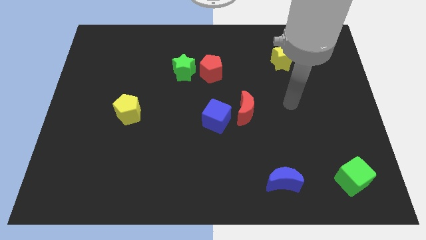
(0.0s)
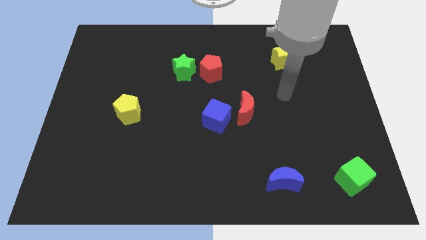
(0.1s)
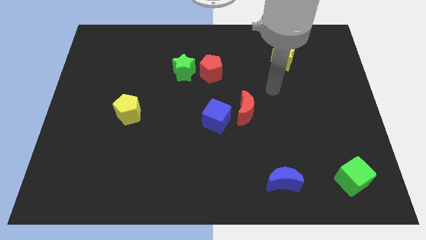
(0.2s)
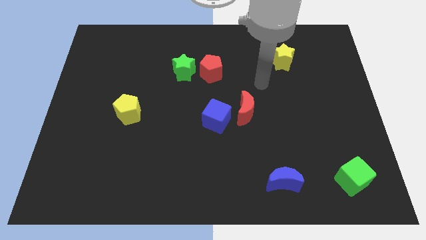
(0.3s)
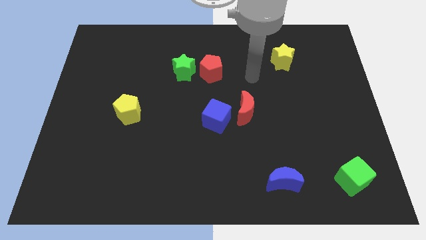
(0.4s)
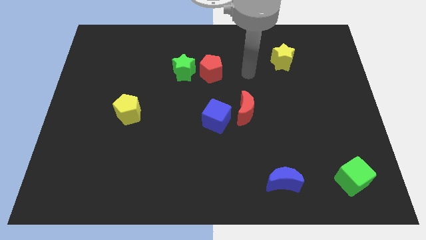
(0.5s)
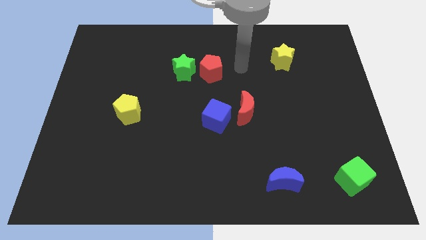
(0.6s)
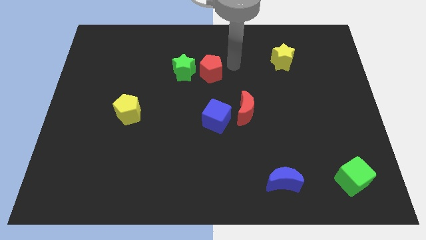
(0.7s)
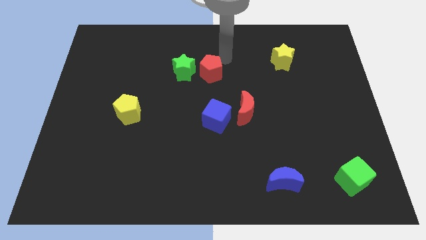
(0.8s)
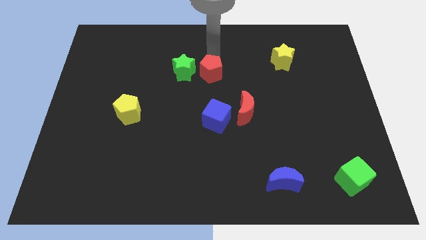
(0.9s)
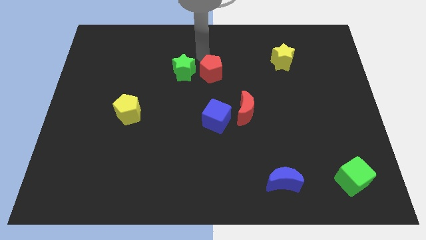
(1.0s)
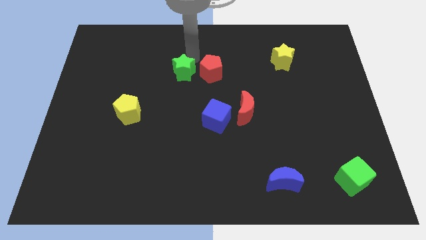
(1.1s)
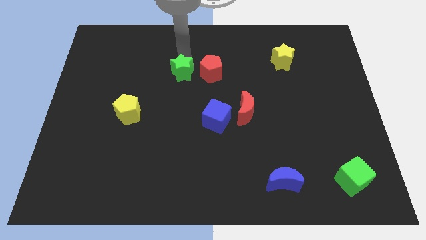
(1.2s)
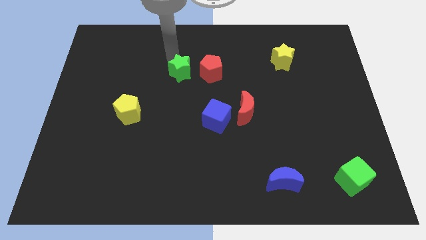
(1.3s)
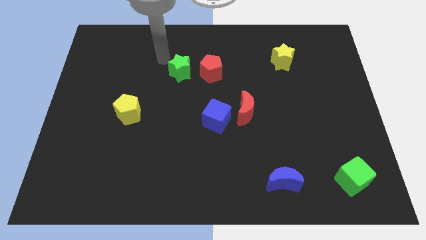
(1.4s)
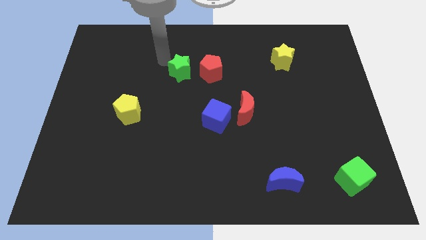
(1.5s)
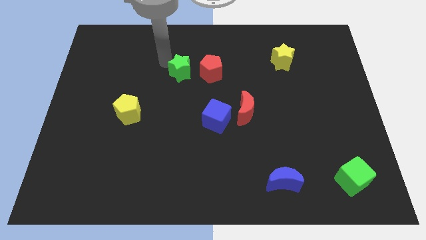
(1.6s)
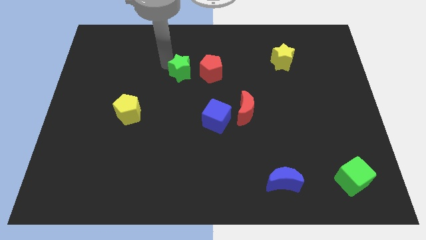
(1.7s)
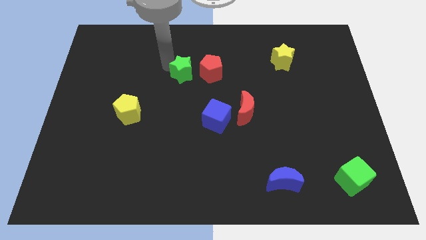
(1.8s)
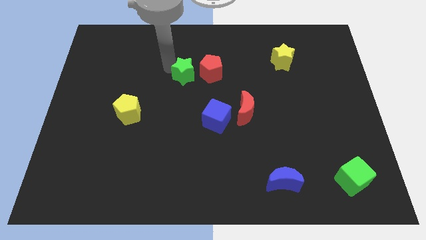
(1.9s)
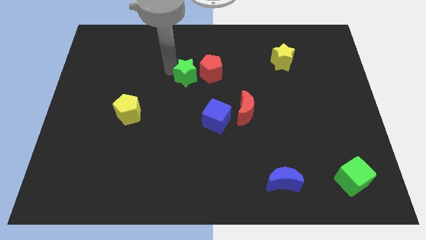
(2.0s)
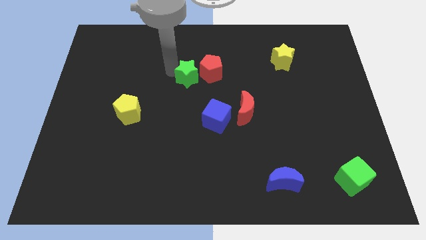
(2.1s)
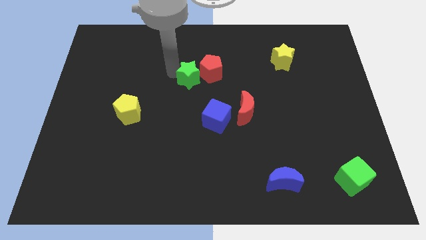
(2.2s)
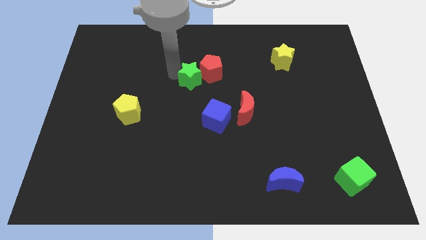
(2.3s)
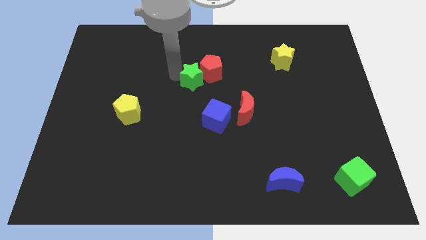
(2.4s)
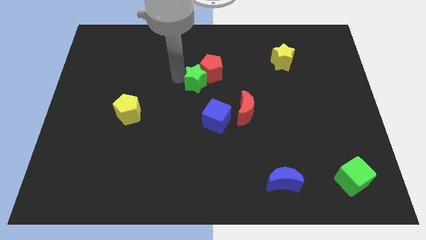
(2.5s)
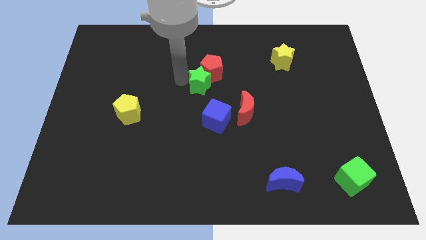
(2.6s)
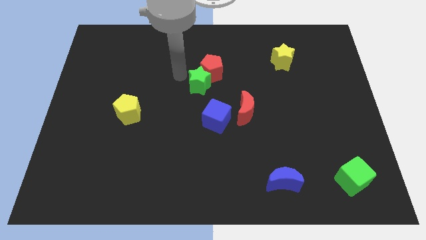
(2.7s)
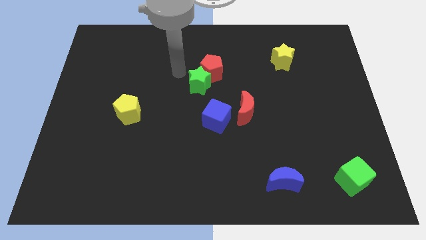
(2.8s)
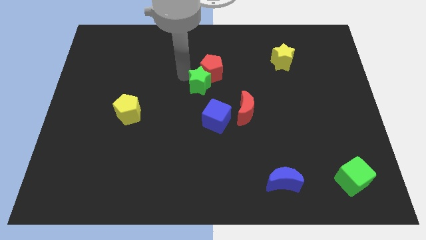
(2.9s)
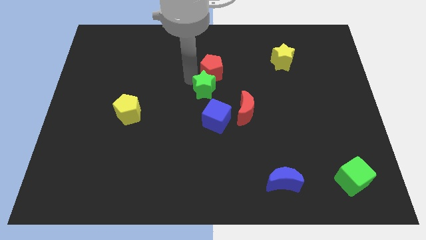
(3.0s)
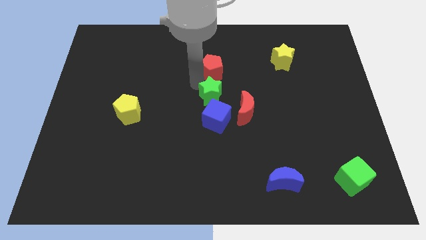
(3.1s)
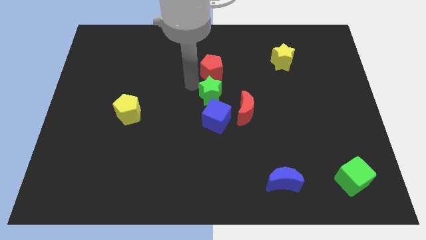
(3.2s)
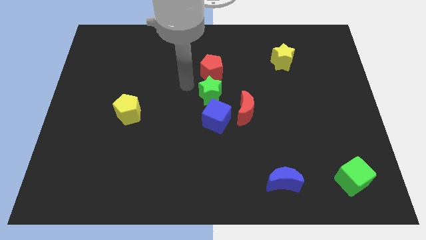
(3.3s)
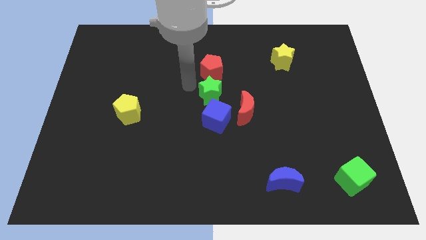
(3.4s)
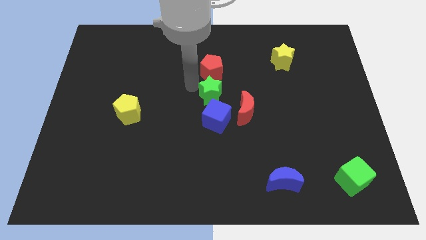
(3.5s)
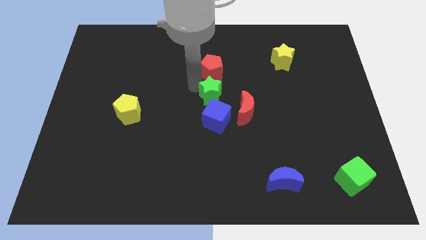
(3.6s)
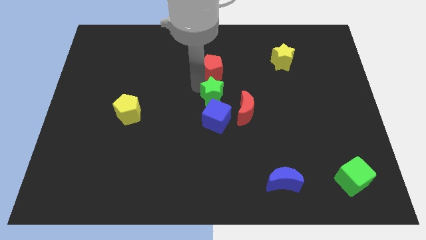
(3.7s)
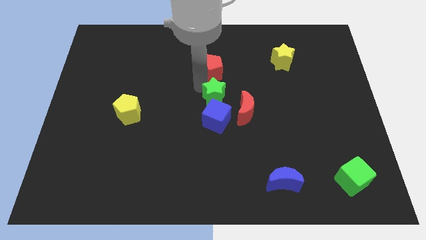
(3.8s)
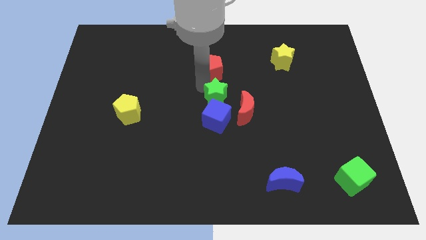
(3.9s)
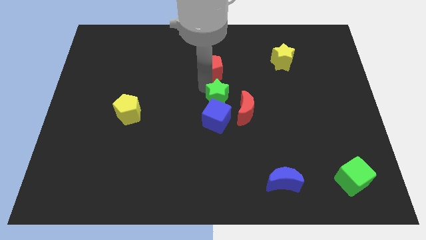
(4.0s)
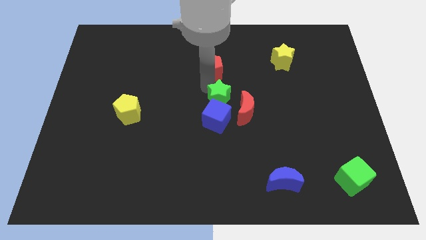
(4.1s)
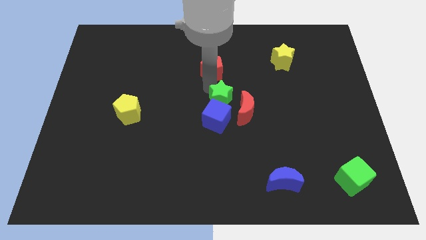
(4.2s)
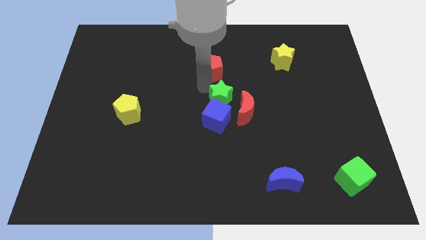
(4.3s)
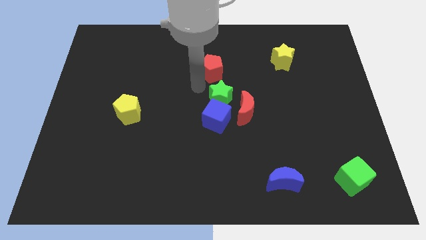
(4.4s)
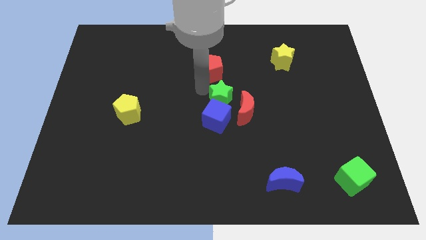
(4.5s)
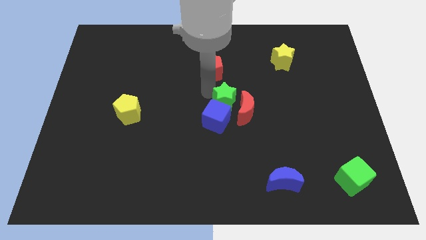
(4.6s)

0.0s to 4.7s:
slide the green star towards the red moon

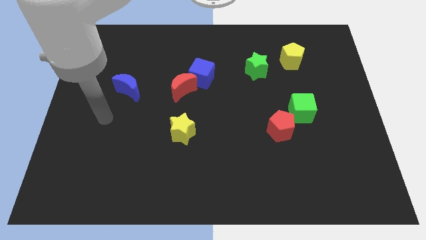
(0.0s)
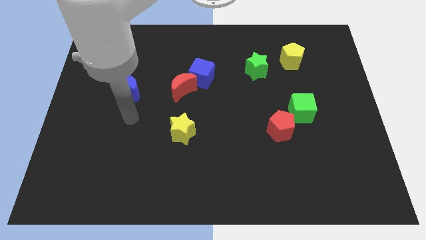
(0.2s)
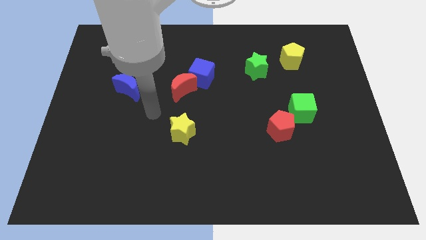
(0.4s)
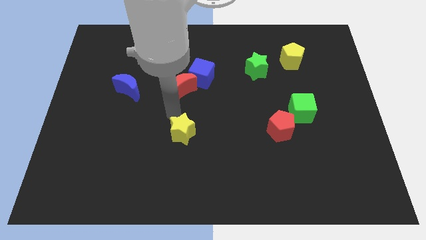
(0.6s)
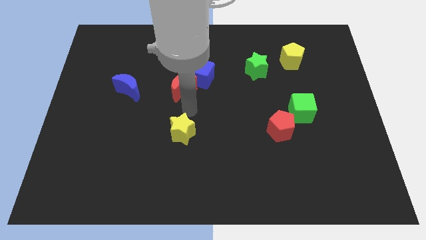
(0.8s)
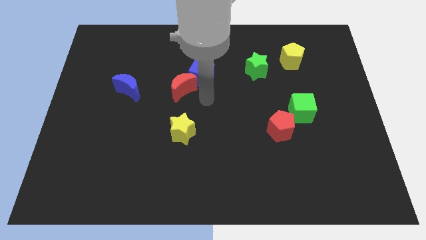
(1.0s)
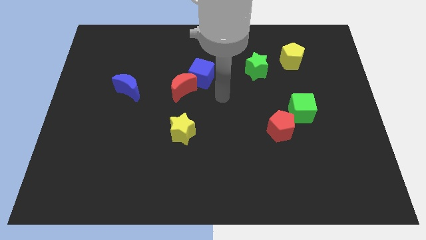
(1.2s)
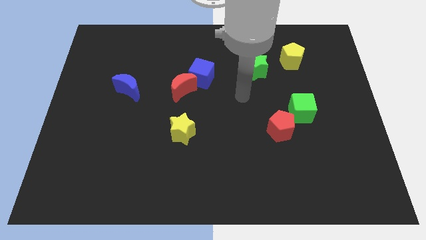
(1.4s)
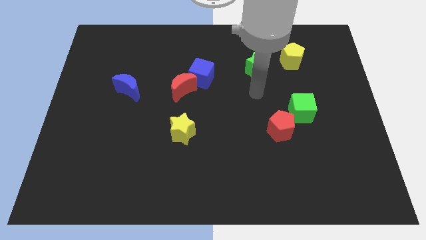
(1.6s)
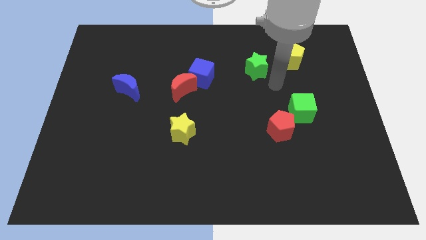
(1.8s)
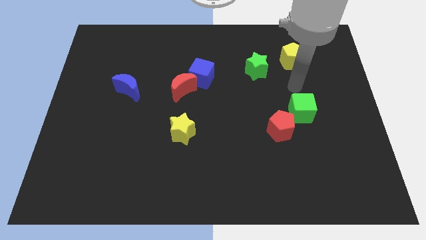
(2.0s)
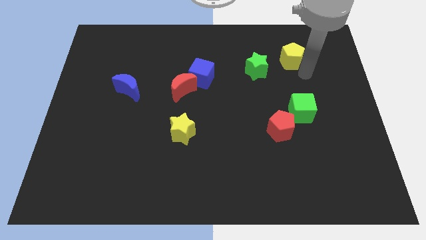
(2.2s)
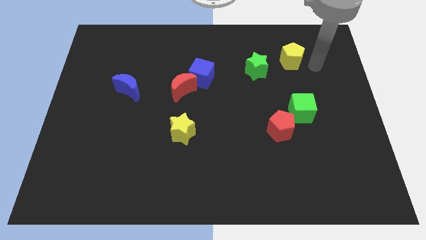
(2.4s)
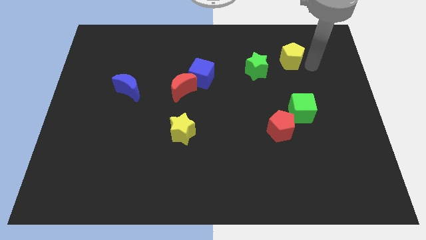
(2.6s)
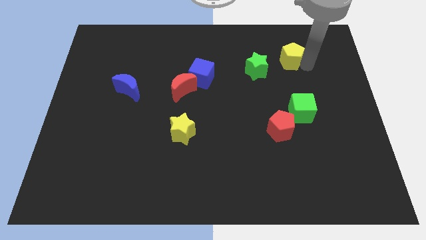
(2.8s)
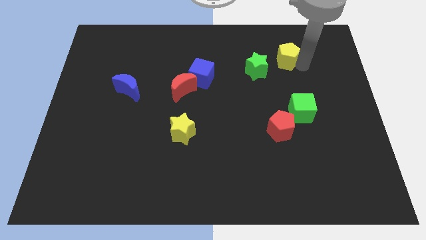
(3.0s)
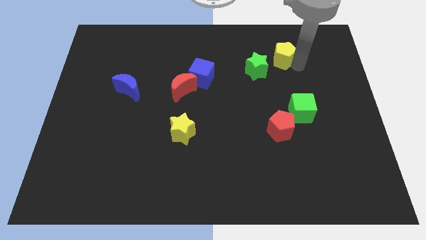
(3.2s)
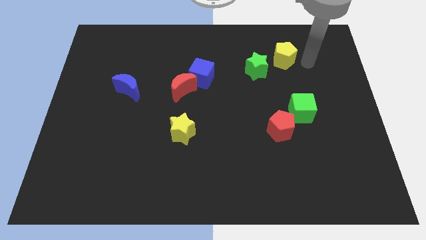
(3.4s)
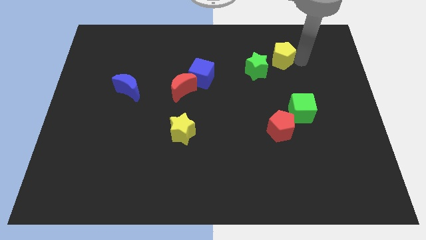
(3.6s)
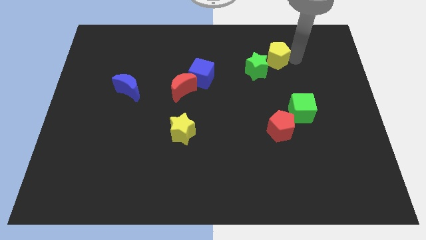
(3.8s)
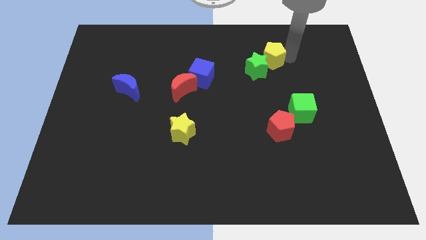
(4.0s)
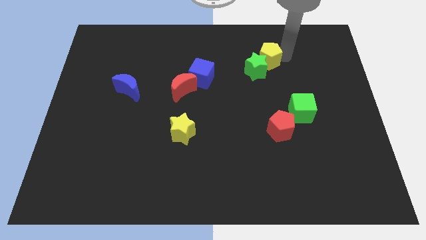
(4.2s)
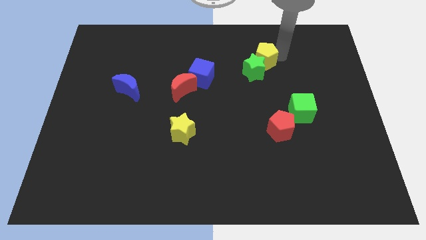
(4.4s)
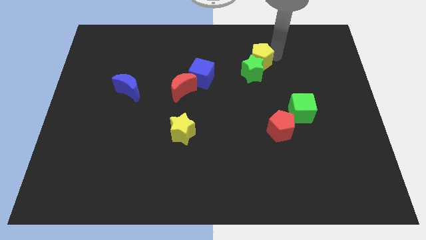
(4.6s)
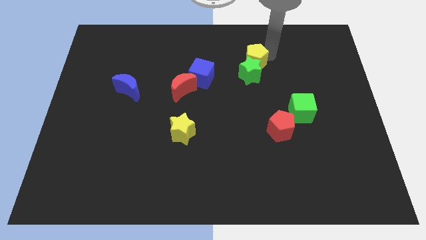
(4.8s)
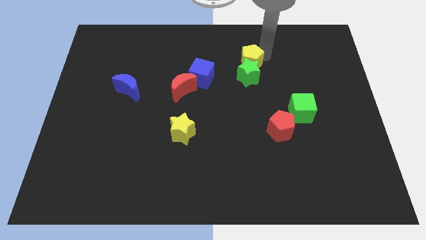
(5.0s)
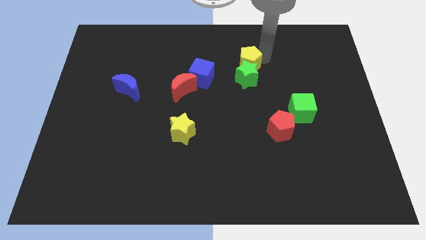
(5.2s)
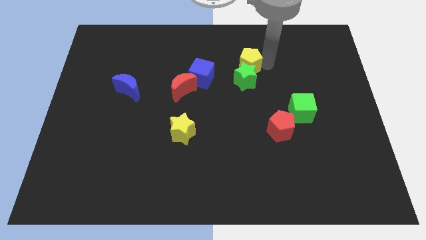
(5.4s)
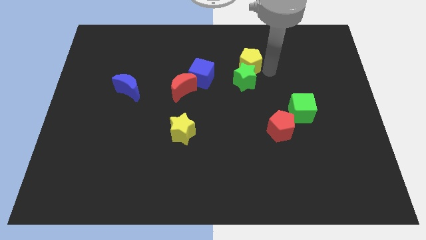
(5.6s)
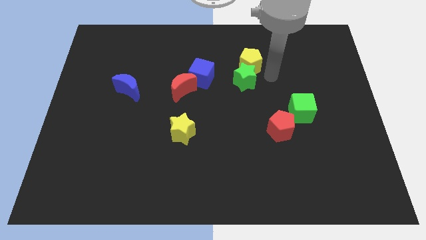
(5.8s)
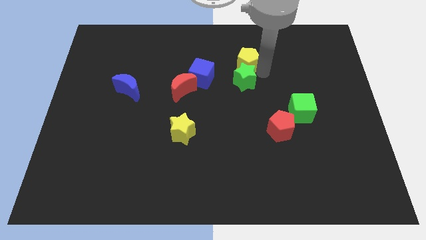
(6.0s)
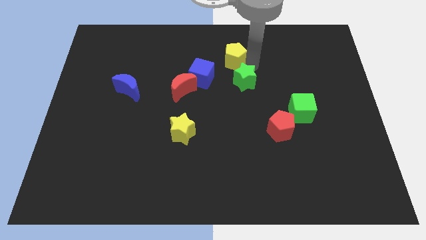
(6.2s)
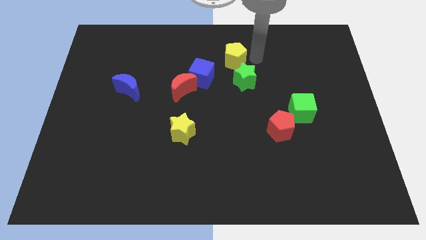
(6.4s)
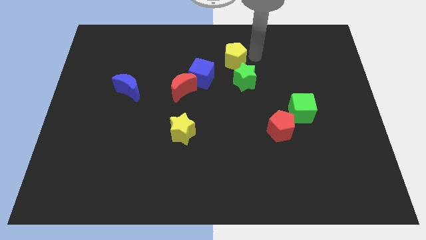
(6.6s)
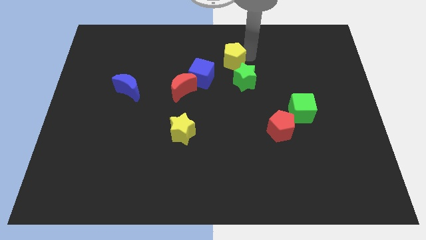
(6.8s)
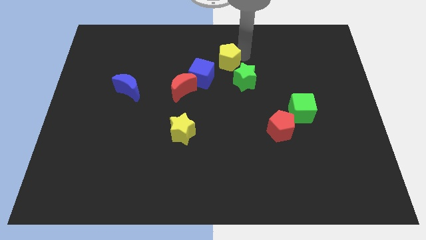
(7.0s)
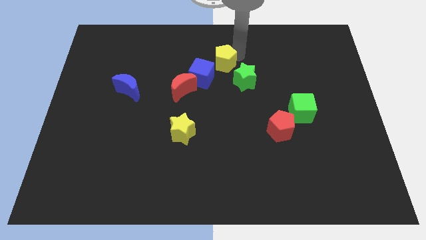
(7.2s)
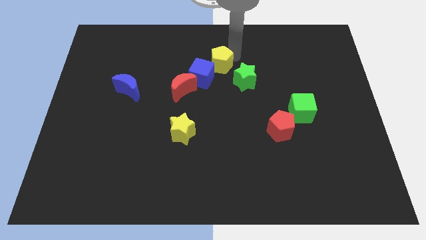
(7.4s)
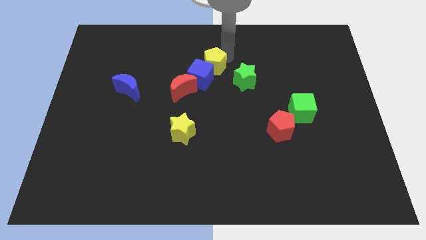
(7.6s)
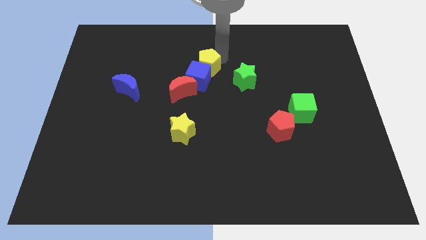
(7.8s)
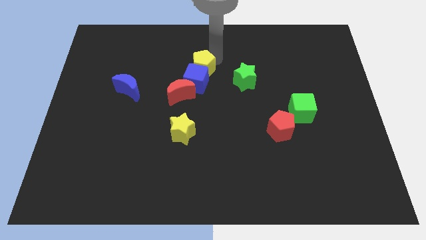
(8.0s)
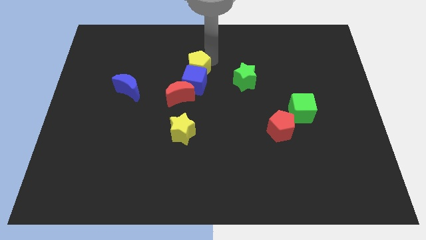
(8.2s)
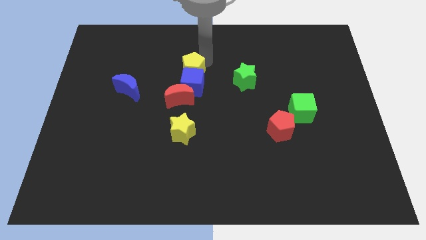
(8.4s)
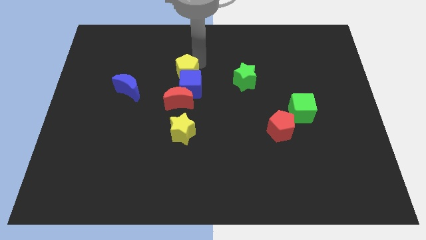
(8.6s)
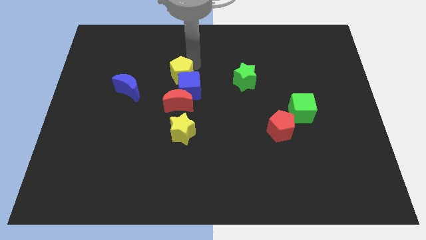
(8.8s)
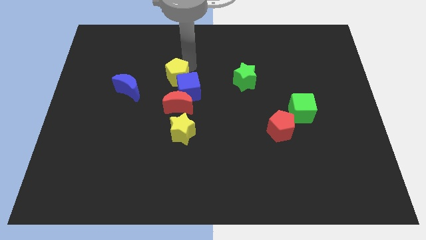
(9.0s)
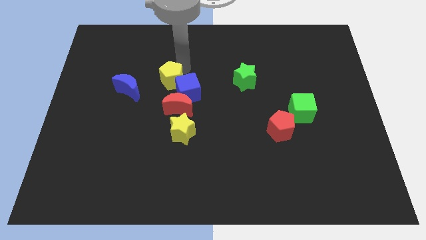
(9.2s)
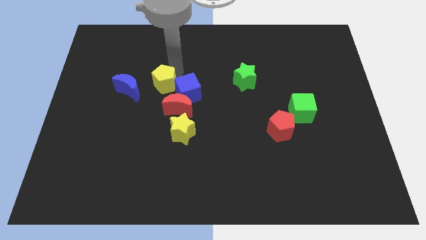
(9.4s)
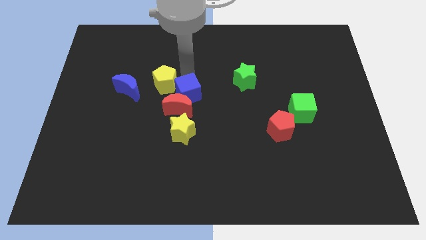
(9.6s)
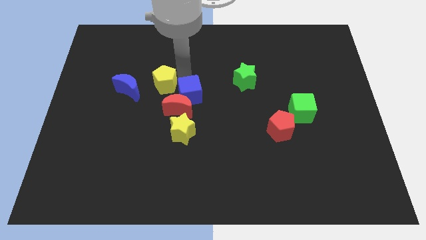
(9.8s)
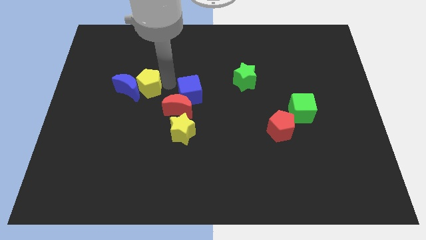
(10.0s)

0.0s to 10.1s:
move the yellow pentagon close to the blue moon
